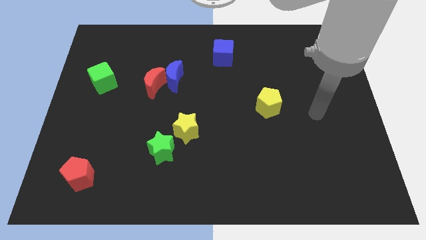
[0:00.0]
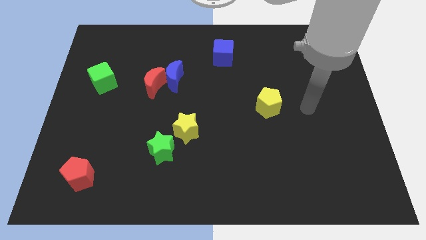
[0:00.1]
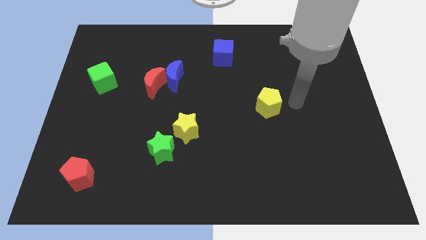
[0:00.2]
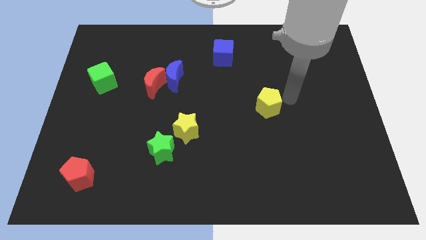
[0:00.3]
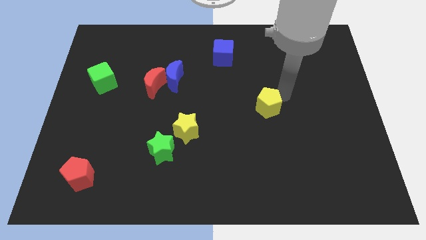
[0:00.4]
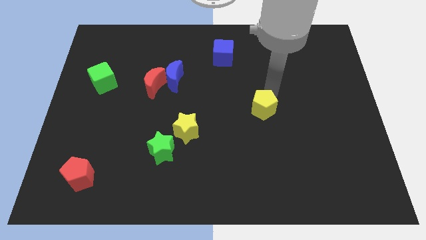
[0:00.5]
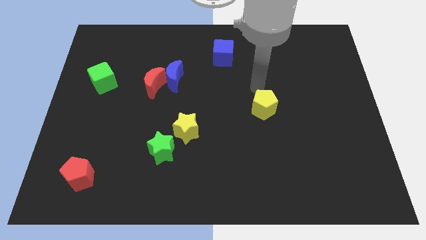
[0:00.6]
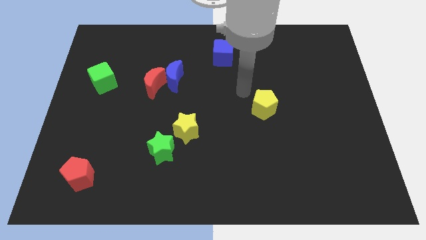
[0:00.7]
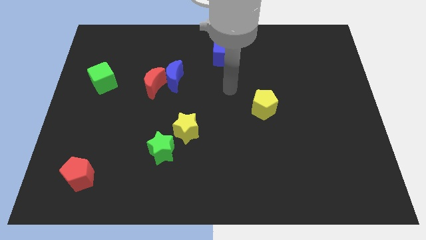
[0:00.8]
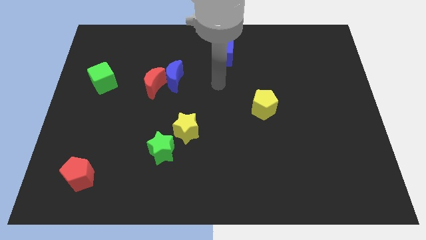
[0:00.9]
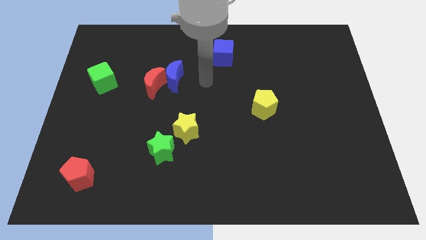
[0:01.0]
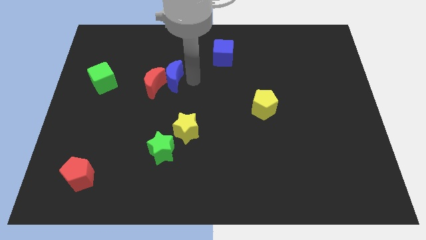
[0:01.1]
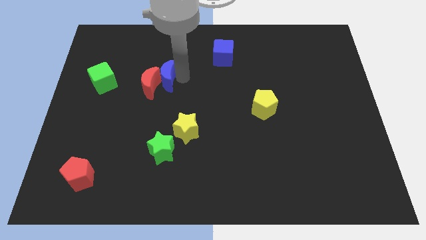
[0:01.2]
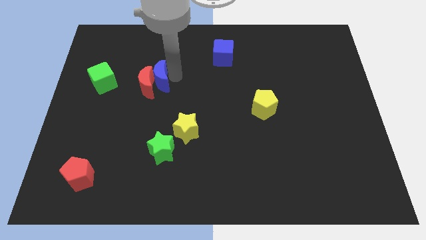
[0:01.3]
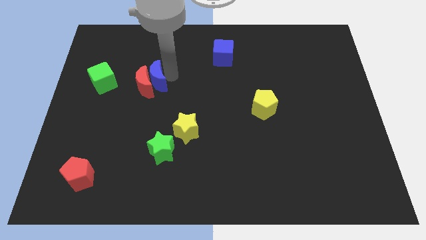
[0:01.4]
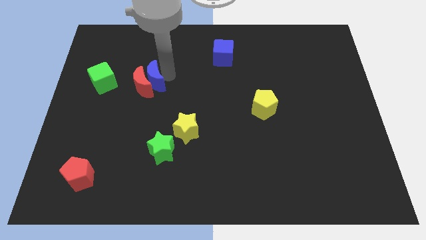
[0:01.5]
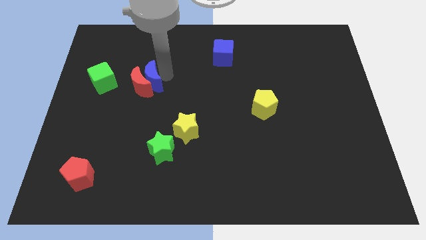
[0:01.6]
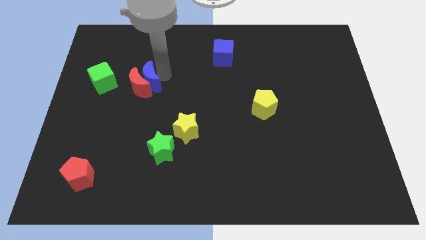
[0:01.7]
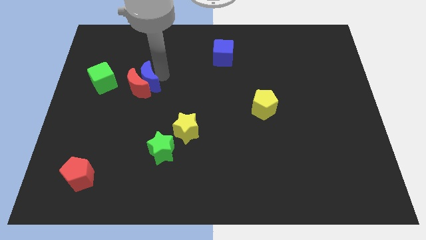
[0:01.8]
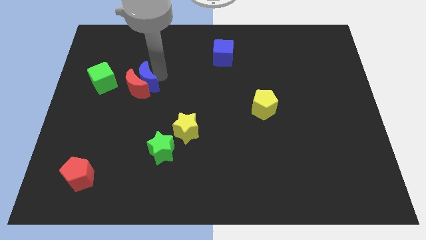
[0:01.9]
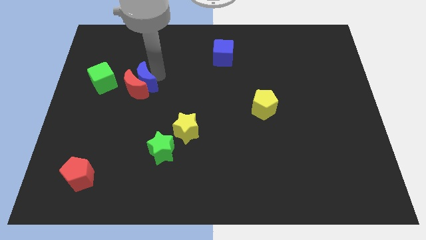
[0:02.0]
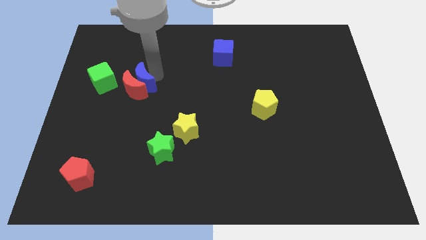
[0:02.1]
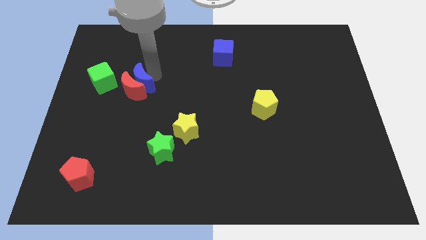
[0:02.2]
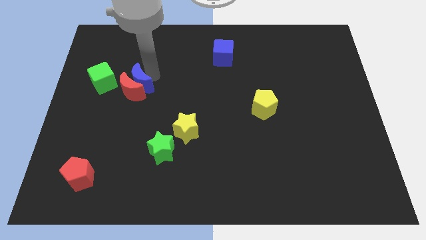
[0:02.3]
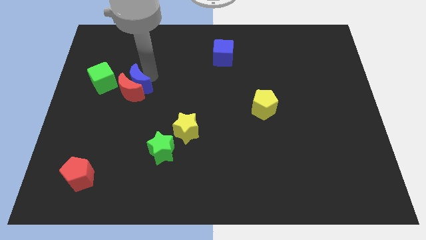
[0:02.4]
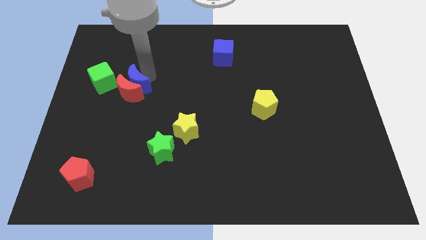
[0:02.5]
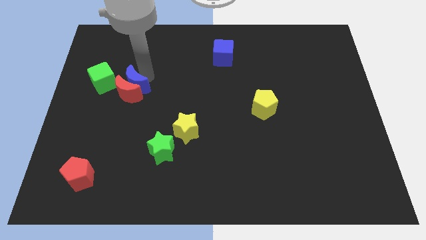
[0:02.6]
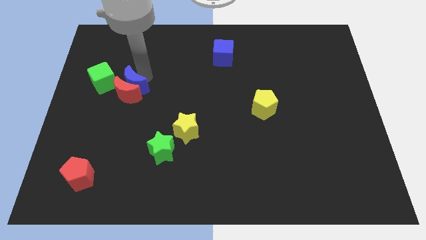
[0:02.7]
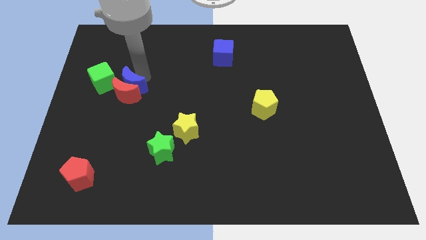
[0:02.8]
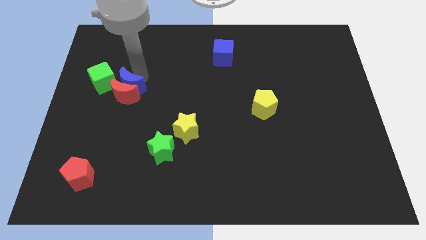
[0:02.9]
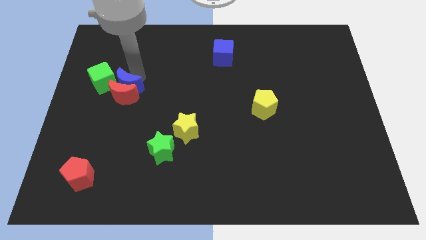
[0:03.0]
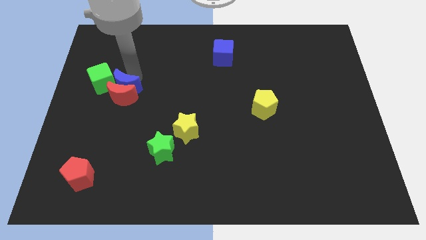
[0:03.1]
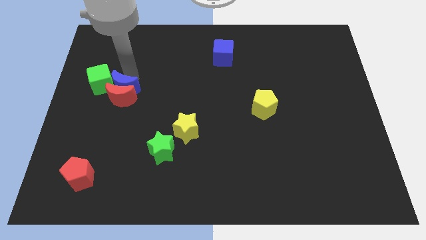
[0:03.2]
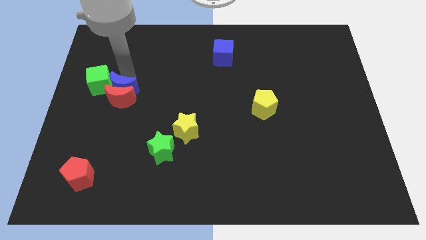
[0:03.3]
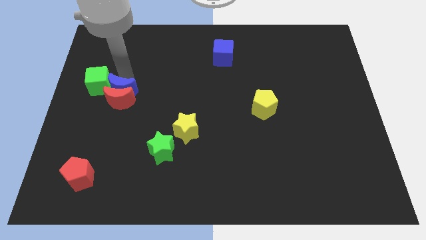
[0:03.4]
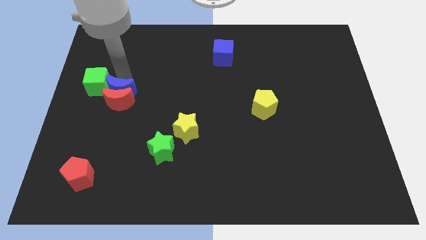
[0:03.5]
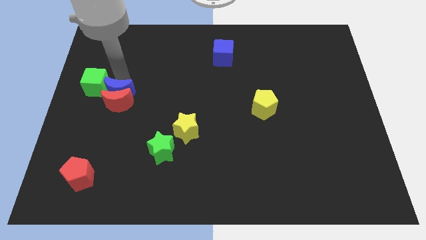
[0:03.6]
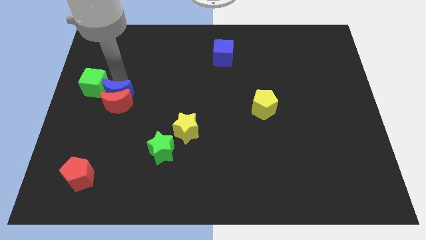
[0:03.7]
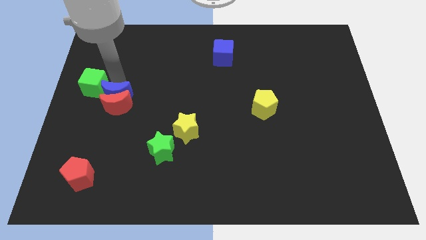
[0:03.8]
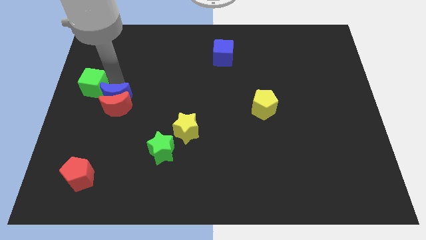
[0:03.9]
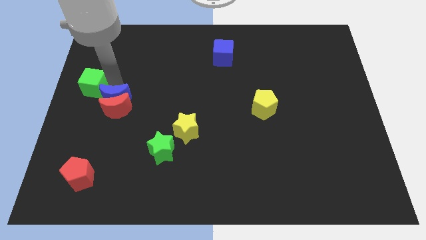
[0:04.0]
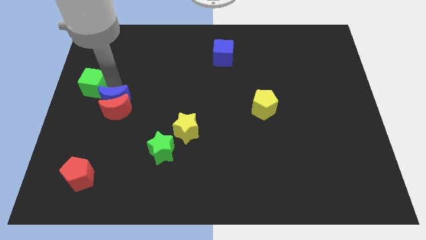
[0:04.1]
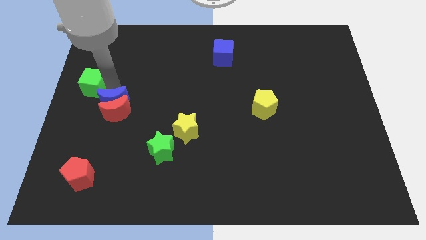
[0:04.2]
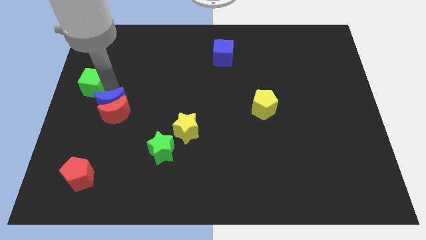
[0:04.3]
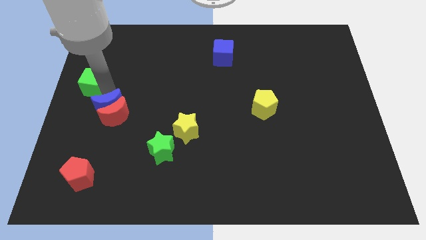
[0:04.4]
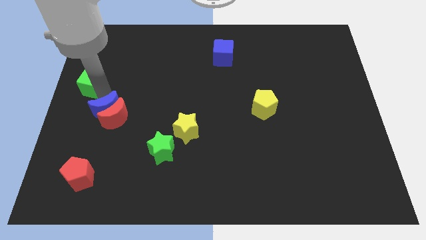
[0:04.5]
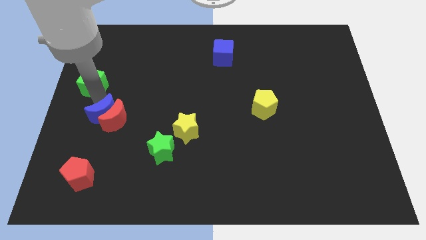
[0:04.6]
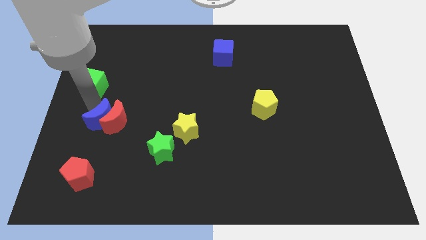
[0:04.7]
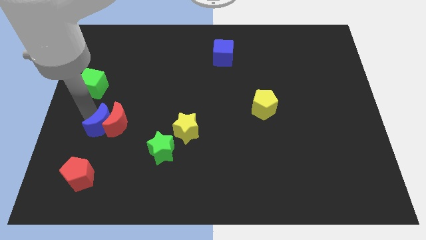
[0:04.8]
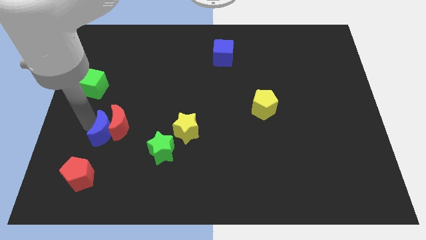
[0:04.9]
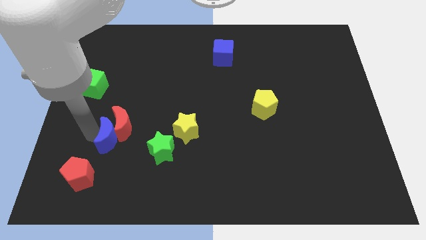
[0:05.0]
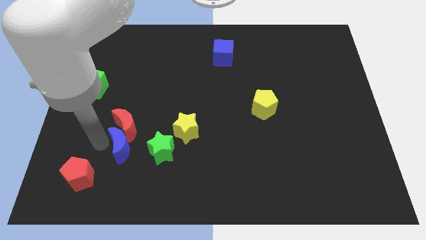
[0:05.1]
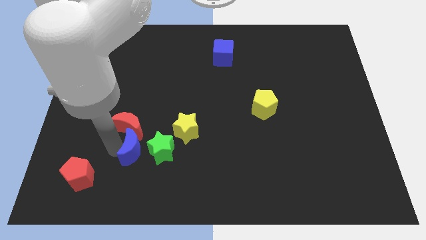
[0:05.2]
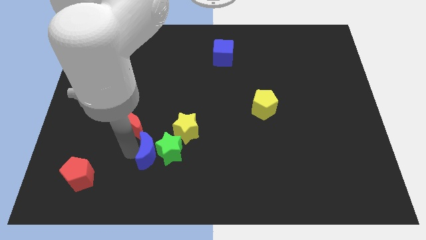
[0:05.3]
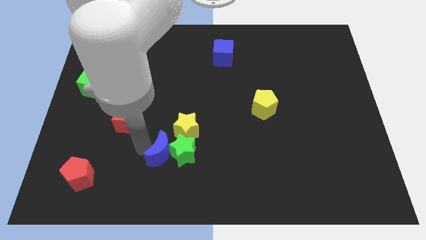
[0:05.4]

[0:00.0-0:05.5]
move the red moon away from the blue moon

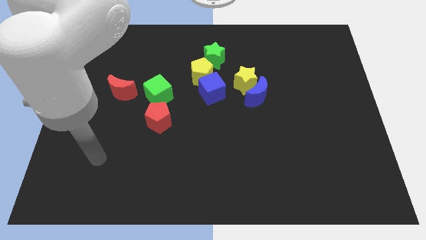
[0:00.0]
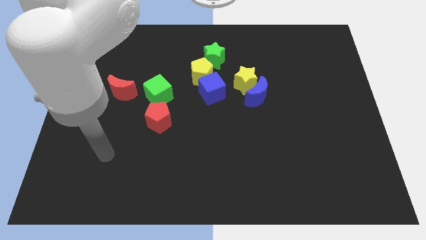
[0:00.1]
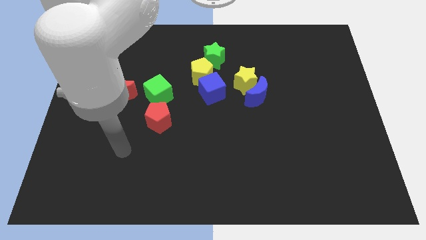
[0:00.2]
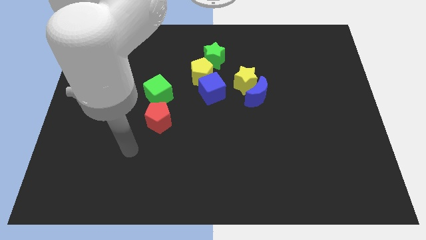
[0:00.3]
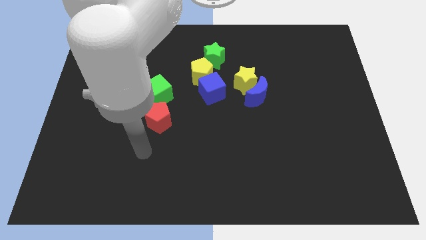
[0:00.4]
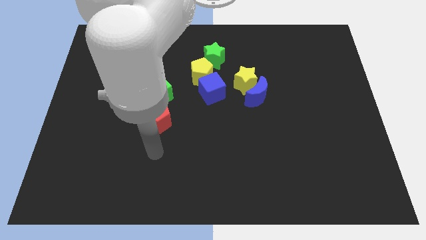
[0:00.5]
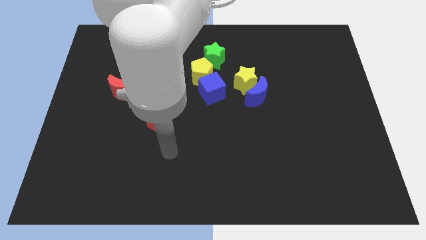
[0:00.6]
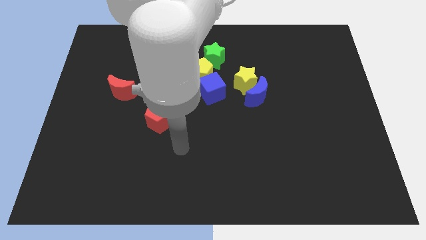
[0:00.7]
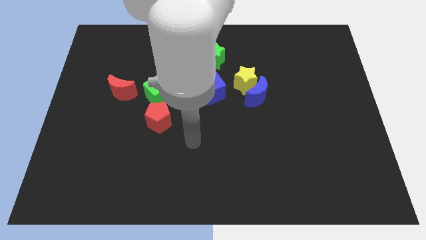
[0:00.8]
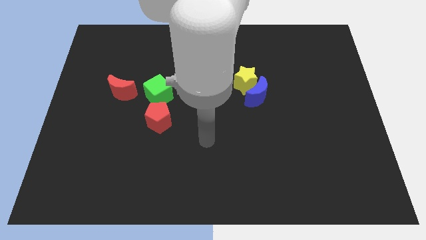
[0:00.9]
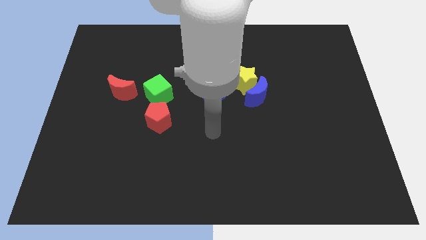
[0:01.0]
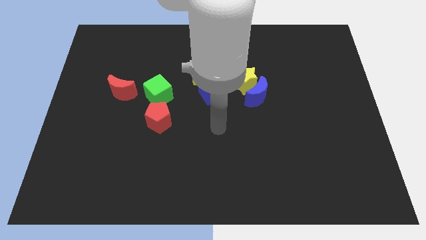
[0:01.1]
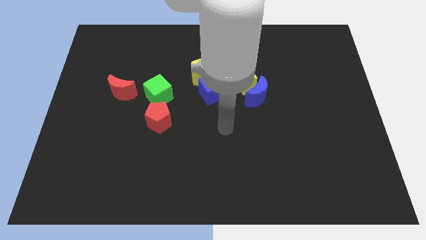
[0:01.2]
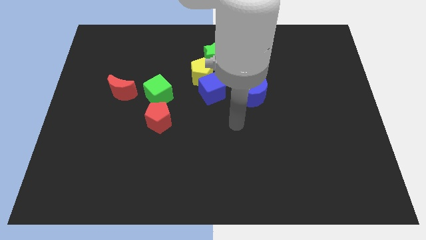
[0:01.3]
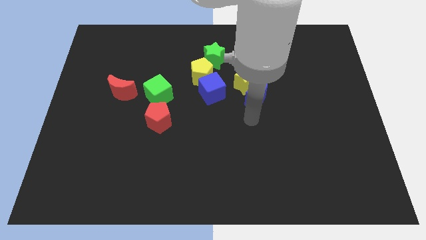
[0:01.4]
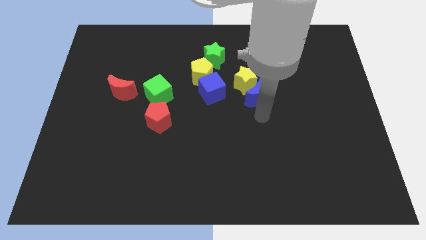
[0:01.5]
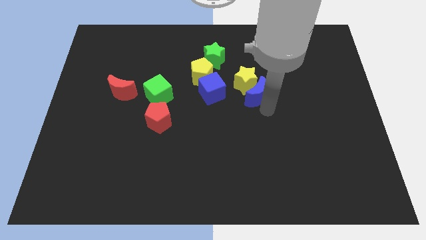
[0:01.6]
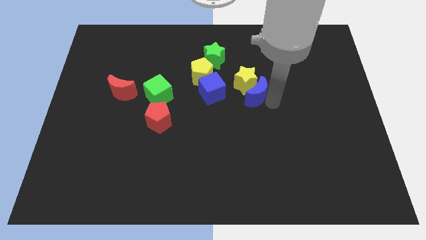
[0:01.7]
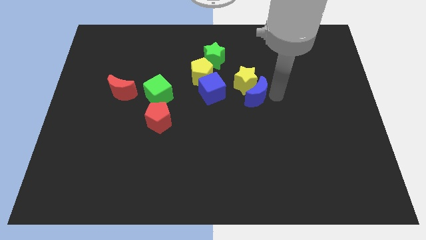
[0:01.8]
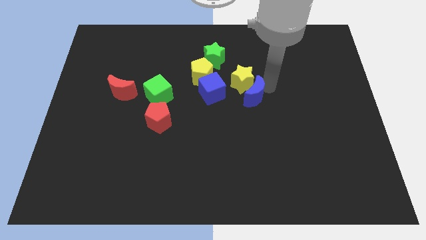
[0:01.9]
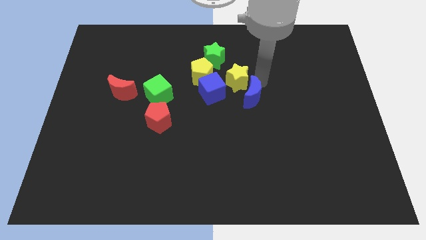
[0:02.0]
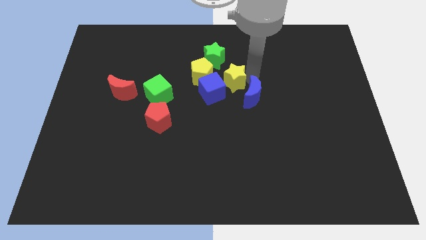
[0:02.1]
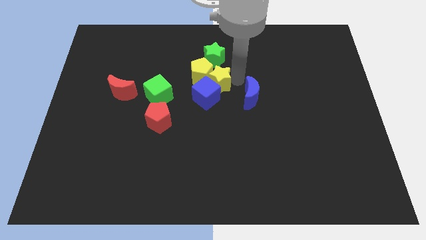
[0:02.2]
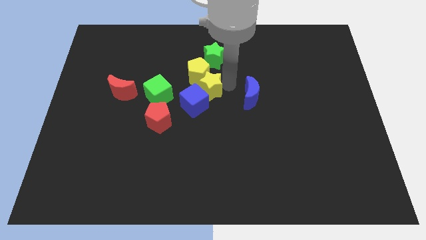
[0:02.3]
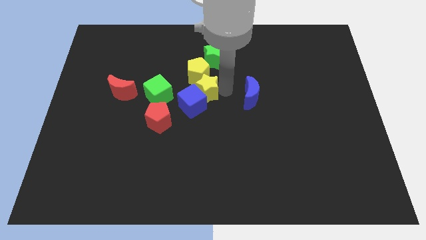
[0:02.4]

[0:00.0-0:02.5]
pull the blue moon apart from the yellow star

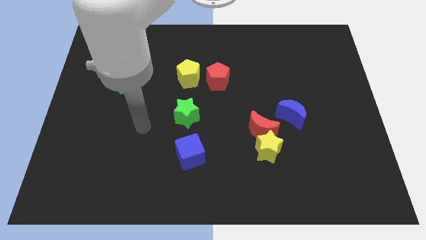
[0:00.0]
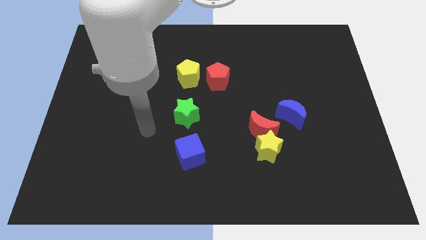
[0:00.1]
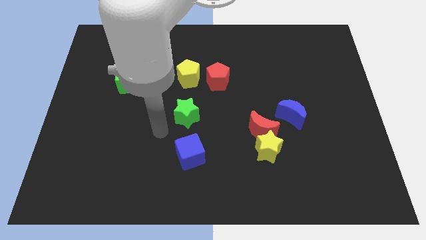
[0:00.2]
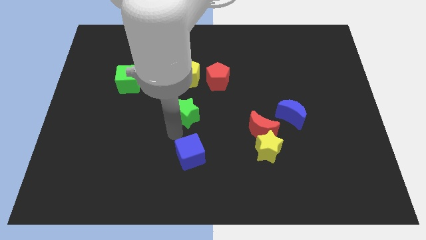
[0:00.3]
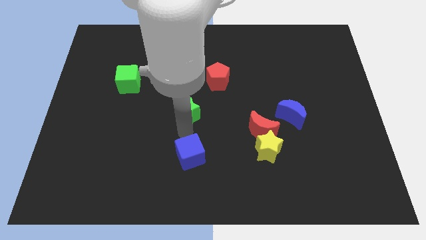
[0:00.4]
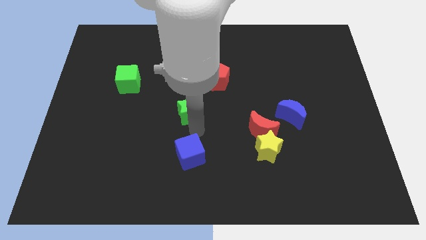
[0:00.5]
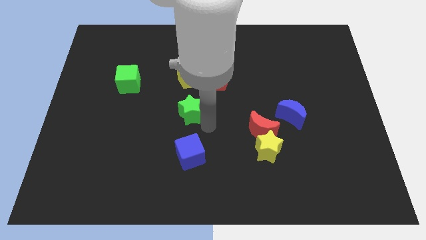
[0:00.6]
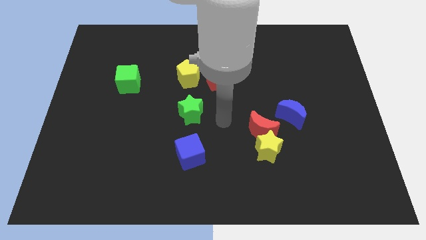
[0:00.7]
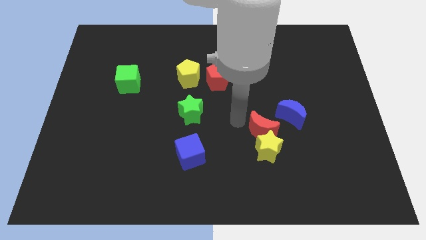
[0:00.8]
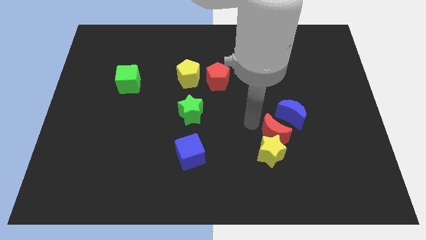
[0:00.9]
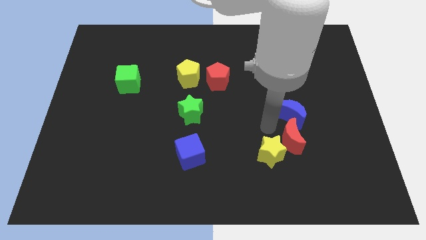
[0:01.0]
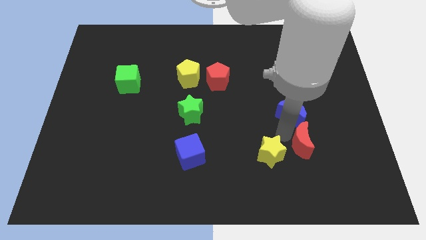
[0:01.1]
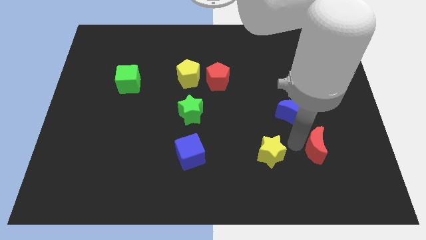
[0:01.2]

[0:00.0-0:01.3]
separate the yellow star from the red moon

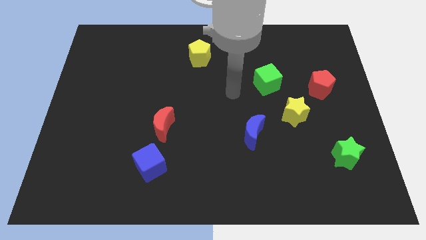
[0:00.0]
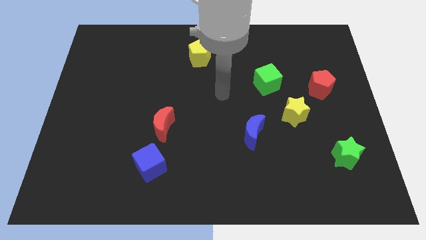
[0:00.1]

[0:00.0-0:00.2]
separate the red moon from the blue cube
